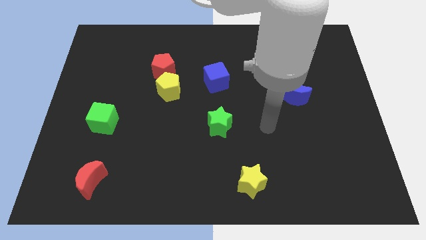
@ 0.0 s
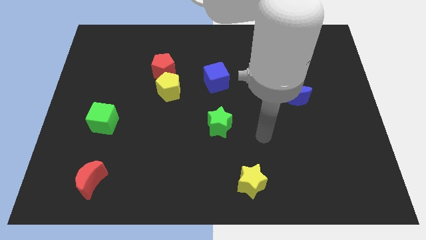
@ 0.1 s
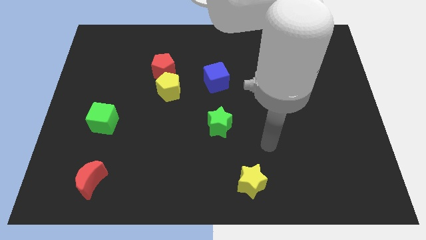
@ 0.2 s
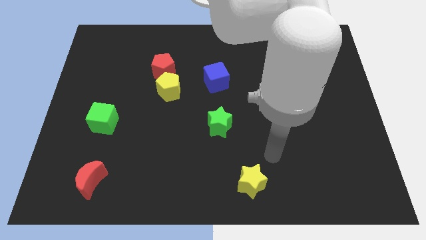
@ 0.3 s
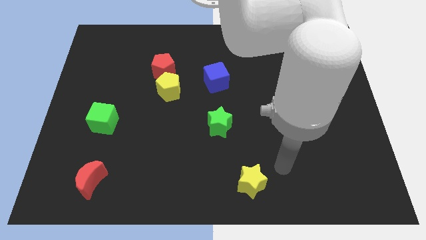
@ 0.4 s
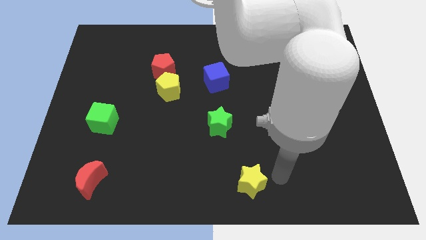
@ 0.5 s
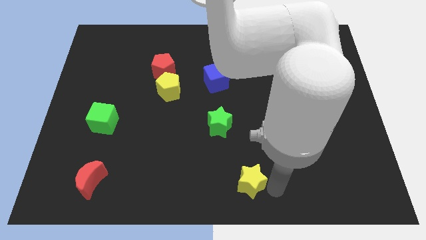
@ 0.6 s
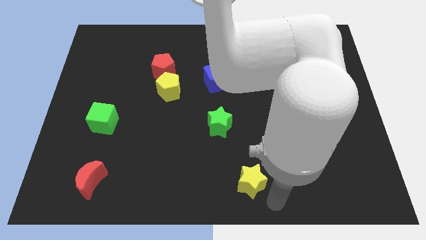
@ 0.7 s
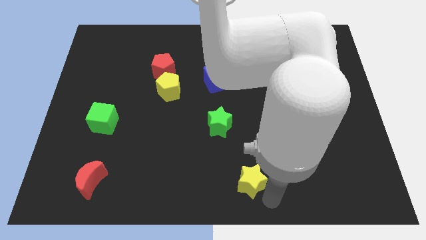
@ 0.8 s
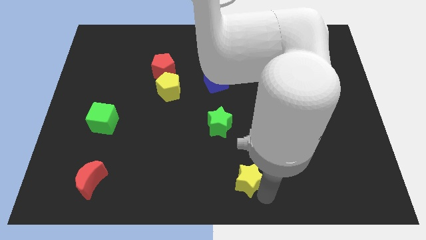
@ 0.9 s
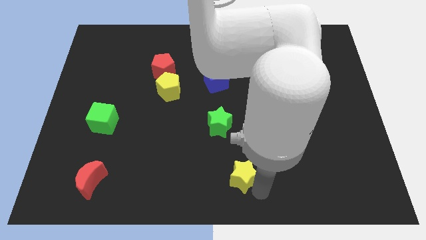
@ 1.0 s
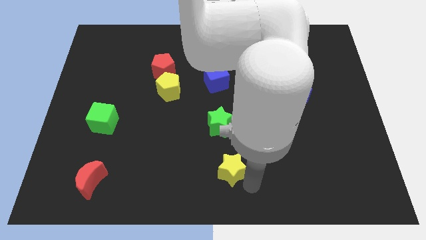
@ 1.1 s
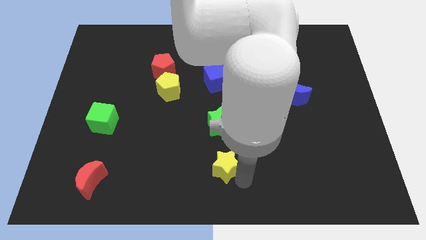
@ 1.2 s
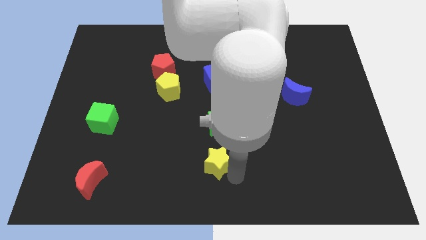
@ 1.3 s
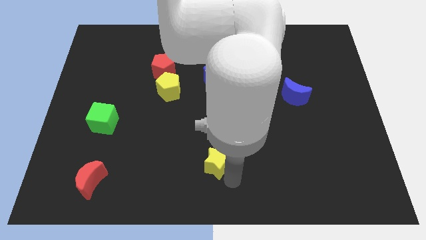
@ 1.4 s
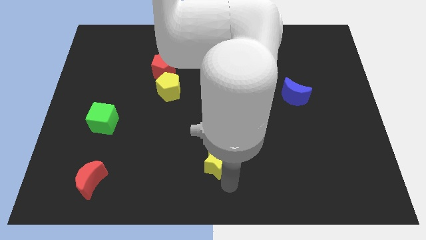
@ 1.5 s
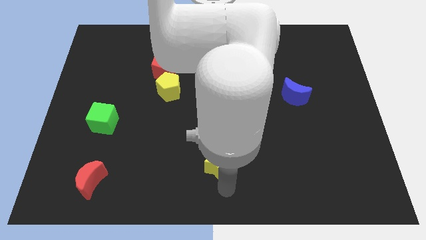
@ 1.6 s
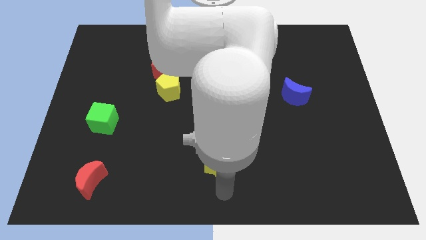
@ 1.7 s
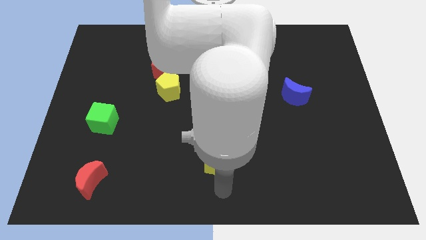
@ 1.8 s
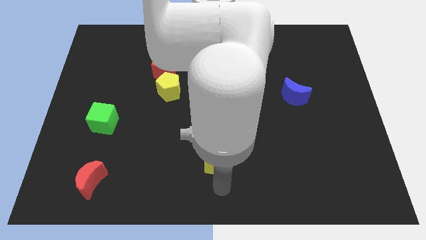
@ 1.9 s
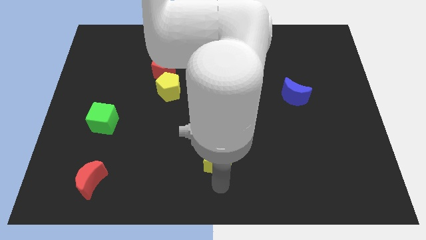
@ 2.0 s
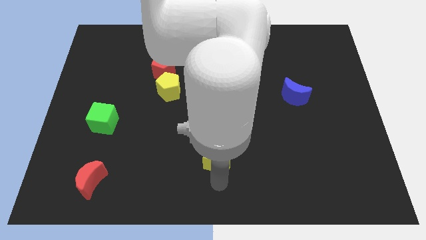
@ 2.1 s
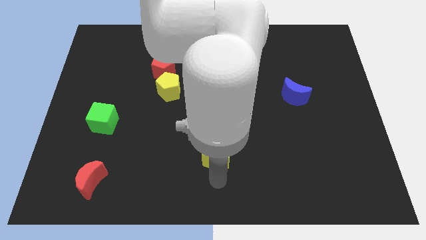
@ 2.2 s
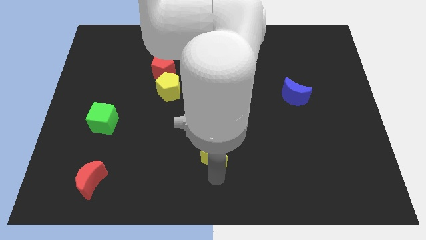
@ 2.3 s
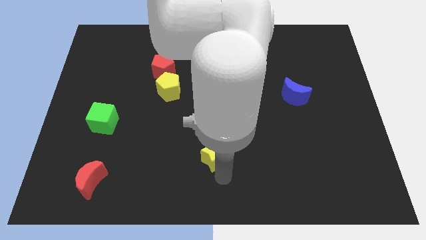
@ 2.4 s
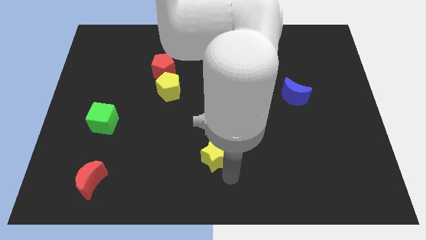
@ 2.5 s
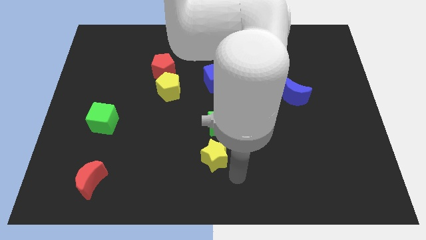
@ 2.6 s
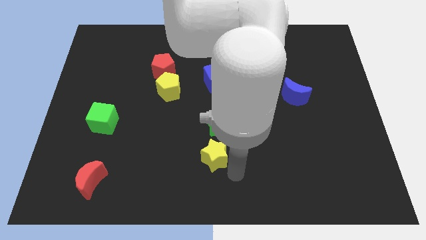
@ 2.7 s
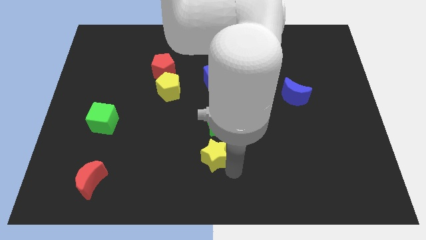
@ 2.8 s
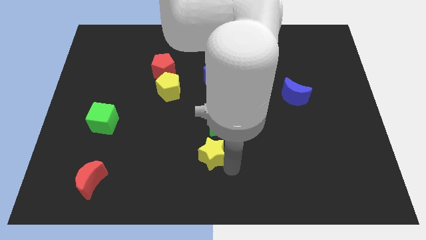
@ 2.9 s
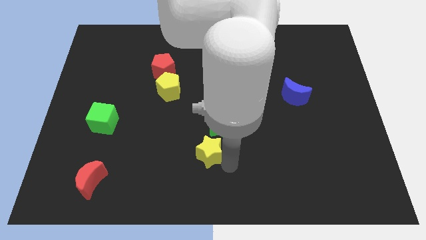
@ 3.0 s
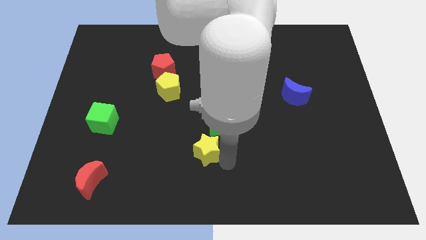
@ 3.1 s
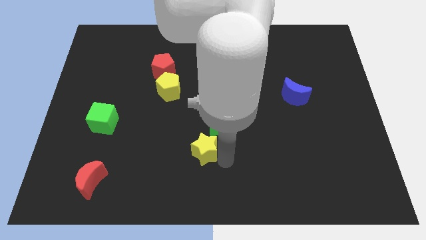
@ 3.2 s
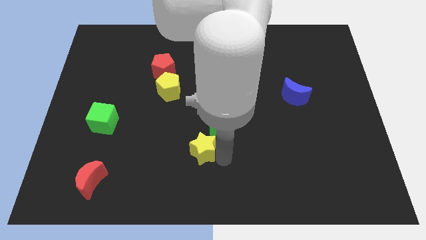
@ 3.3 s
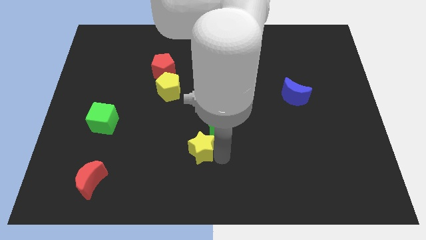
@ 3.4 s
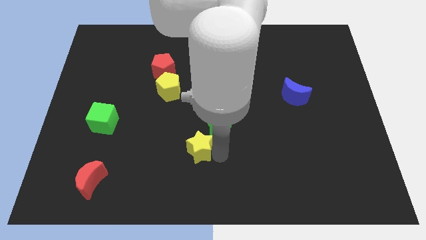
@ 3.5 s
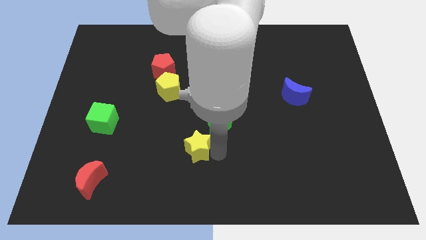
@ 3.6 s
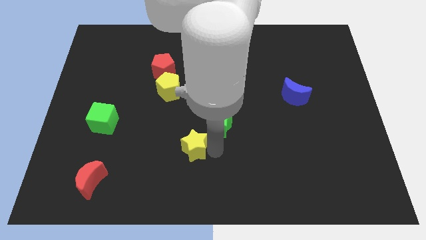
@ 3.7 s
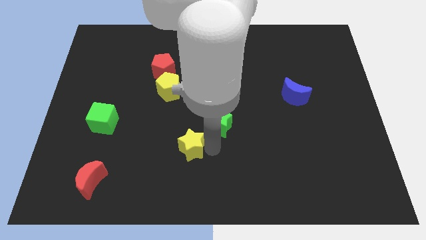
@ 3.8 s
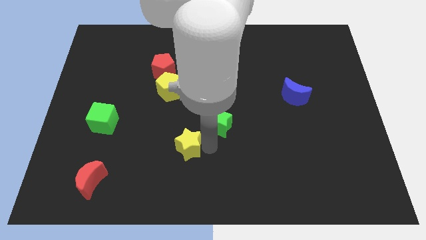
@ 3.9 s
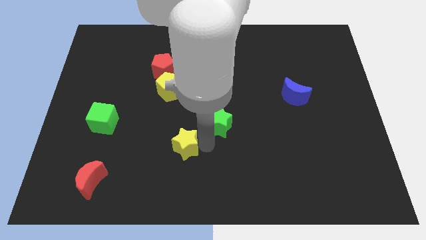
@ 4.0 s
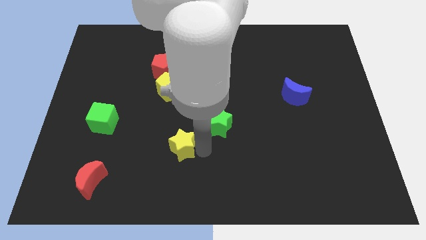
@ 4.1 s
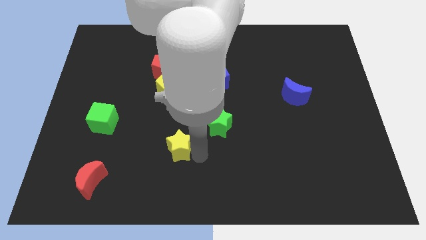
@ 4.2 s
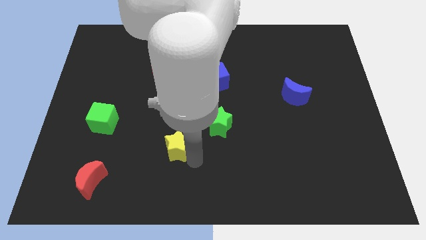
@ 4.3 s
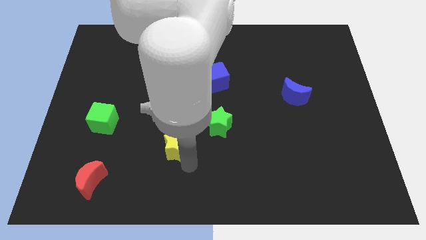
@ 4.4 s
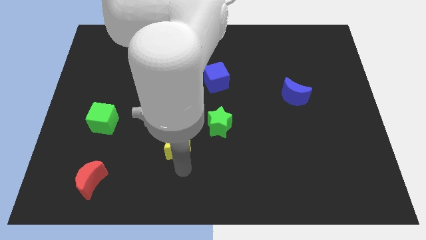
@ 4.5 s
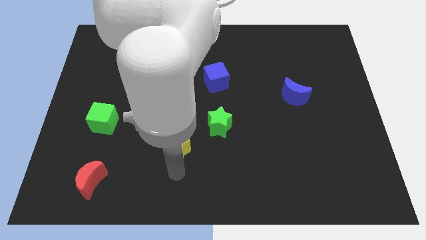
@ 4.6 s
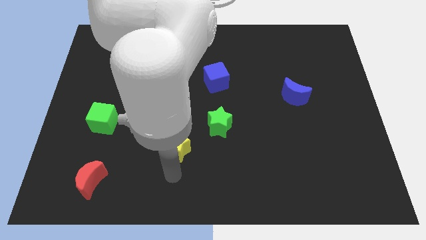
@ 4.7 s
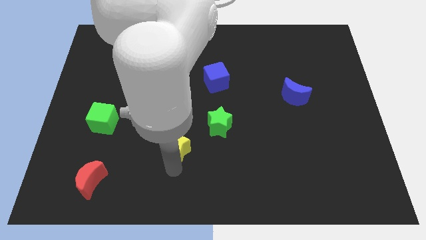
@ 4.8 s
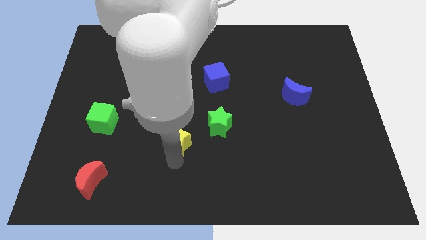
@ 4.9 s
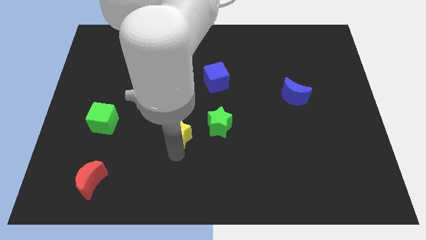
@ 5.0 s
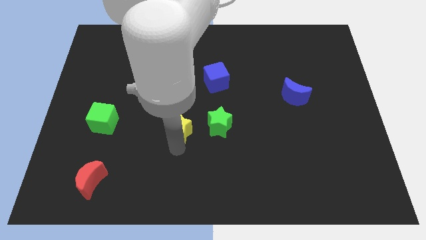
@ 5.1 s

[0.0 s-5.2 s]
slide the yellow star up and then to the left

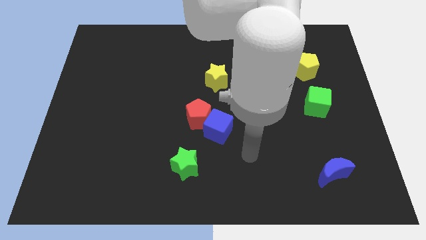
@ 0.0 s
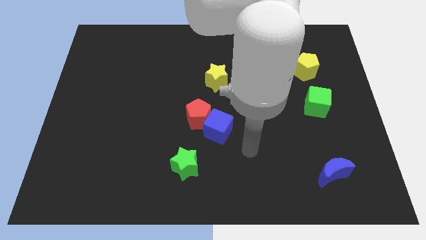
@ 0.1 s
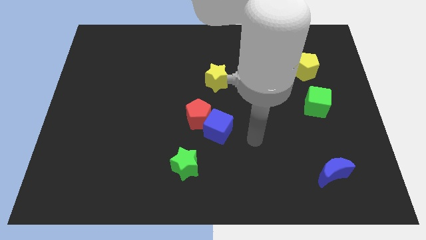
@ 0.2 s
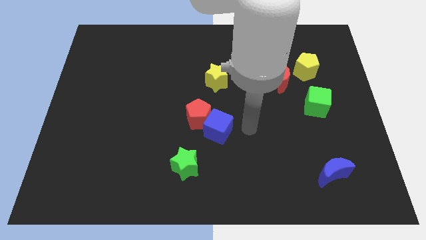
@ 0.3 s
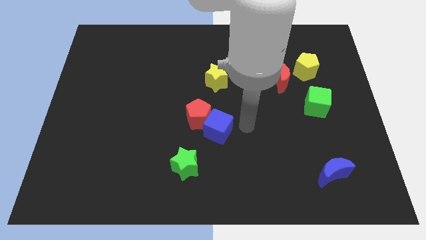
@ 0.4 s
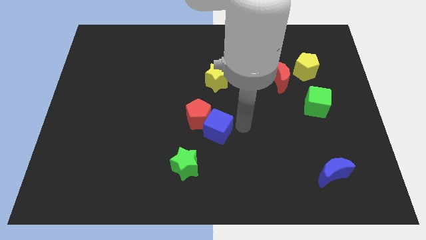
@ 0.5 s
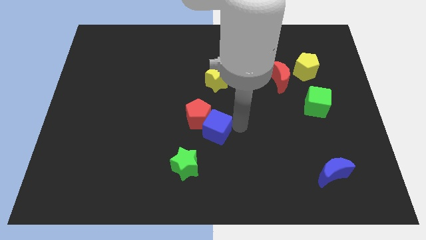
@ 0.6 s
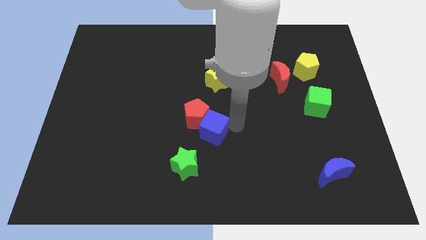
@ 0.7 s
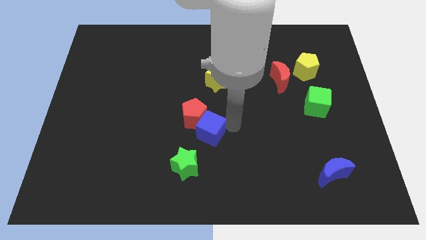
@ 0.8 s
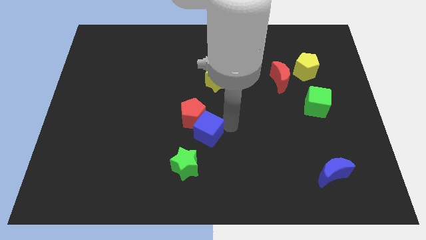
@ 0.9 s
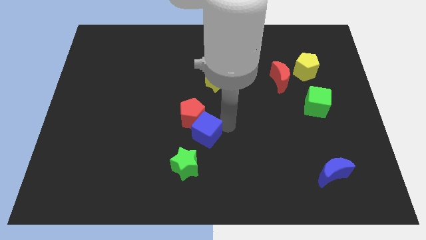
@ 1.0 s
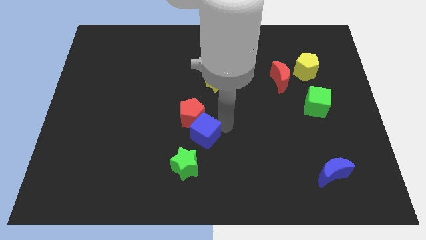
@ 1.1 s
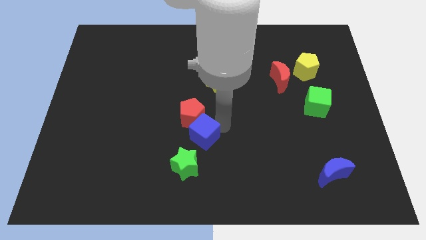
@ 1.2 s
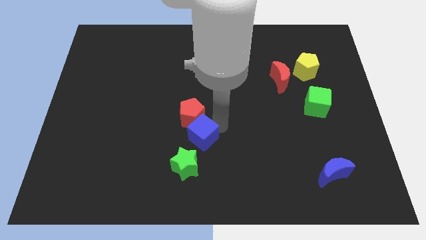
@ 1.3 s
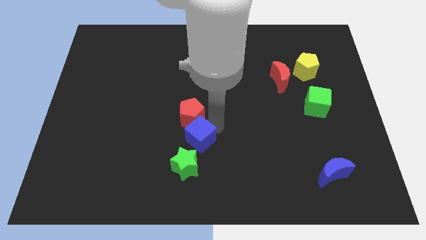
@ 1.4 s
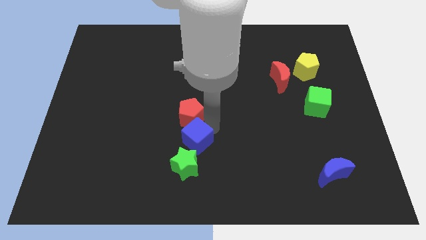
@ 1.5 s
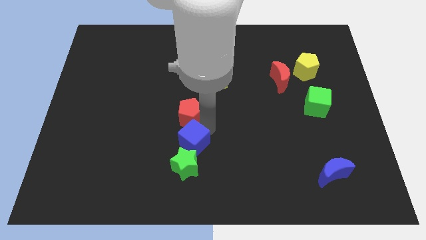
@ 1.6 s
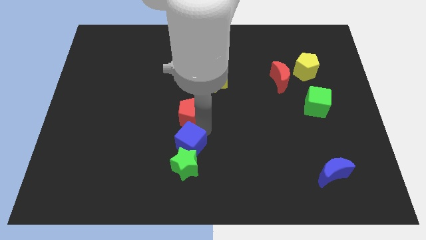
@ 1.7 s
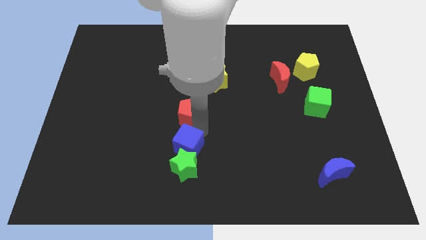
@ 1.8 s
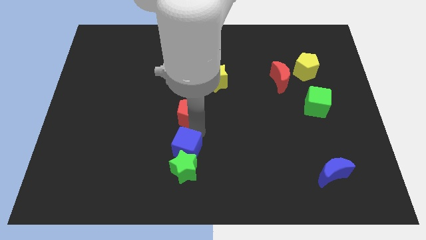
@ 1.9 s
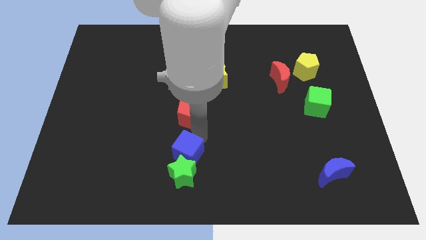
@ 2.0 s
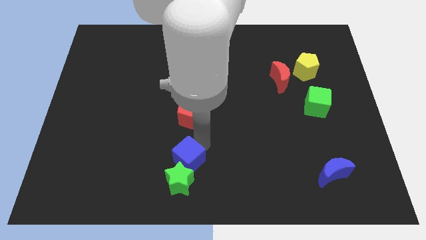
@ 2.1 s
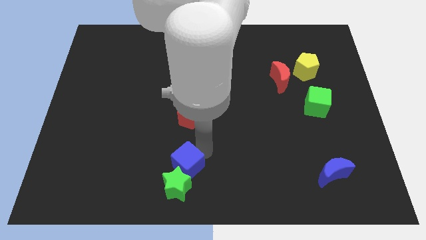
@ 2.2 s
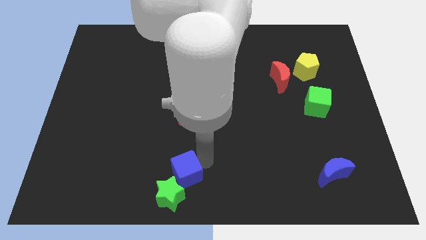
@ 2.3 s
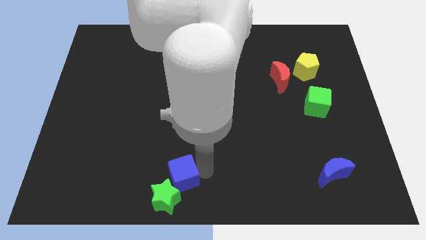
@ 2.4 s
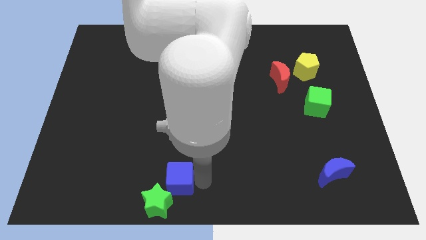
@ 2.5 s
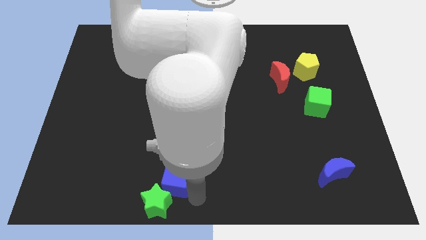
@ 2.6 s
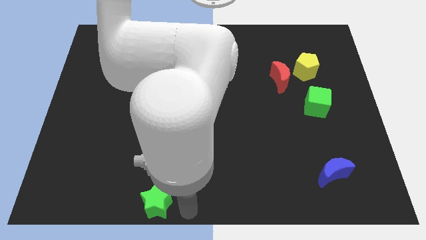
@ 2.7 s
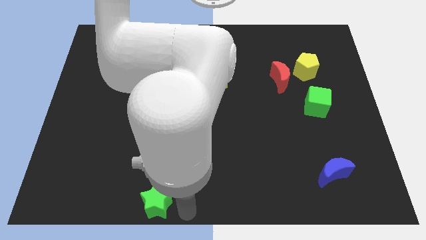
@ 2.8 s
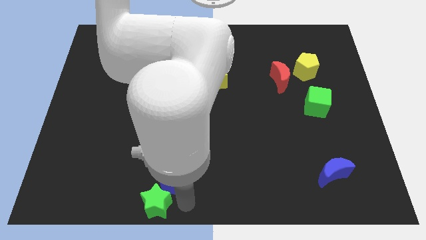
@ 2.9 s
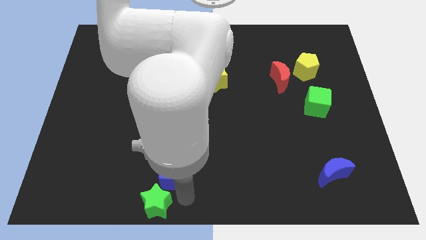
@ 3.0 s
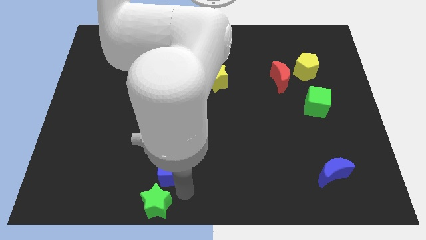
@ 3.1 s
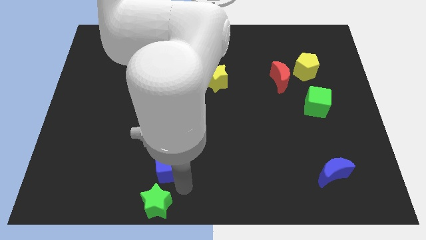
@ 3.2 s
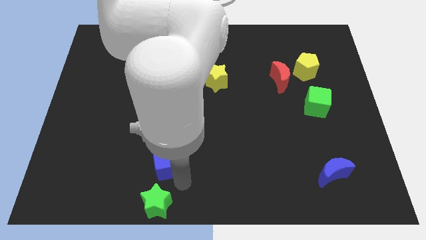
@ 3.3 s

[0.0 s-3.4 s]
slide the blue cube slightly left
